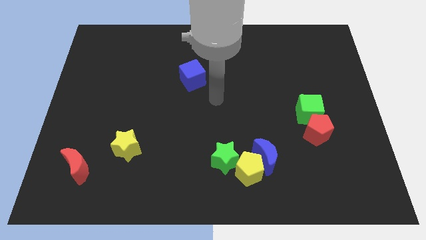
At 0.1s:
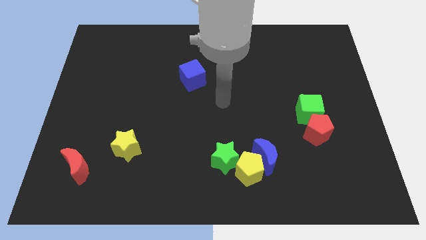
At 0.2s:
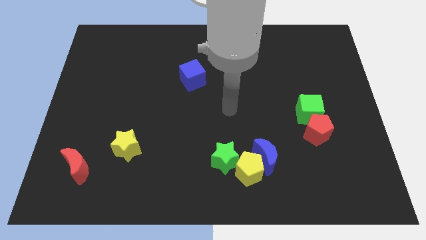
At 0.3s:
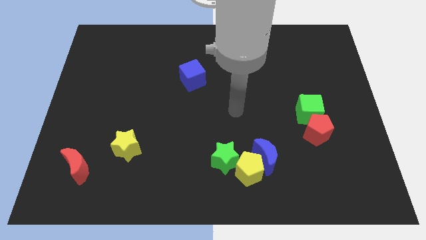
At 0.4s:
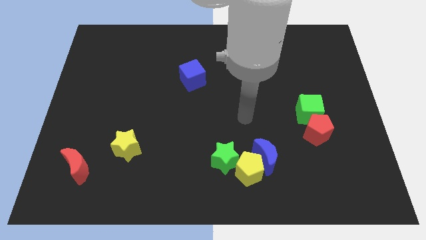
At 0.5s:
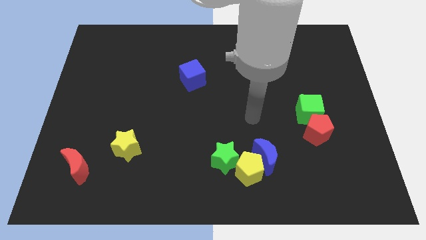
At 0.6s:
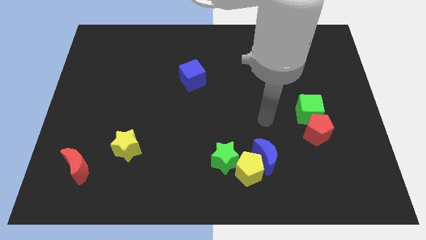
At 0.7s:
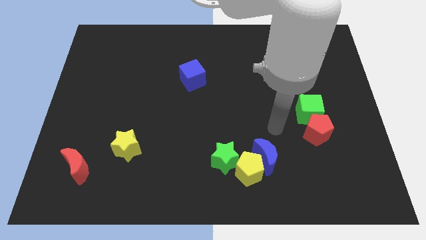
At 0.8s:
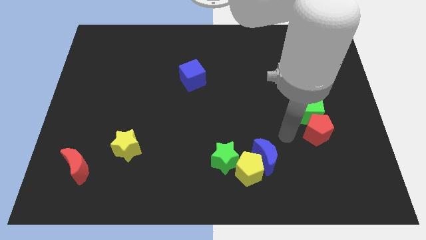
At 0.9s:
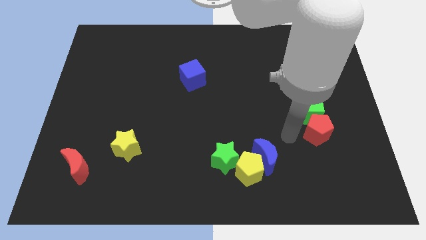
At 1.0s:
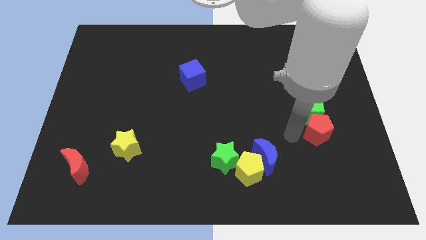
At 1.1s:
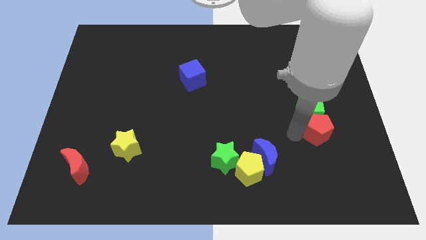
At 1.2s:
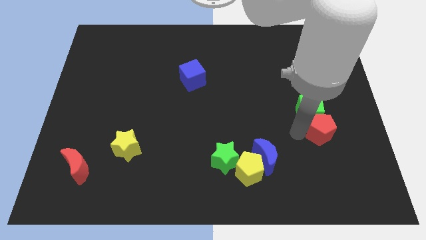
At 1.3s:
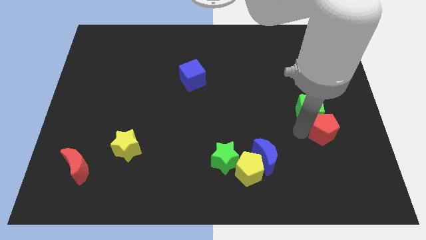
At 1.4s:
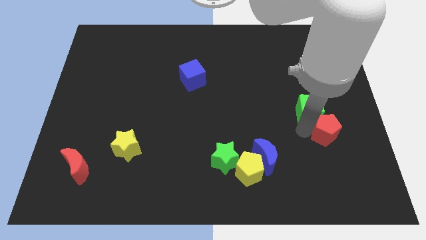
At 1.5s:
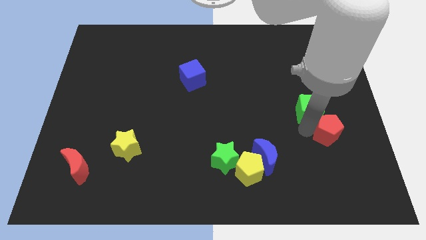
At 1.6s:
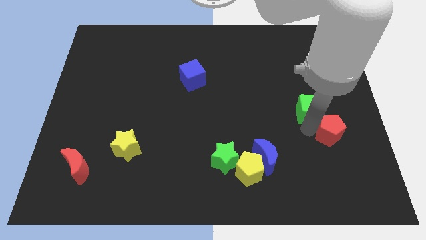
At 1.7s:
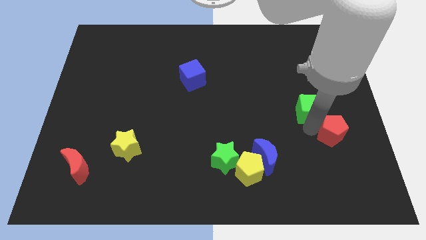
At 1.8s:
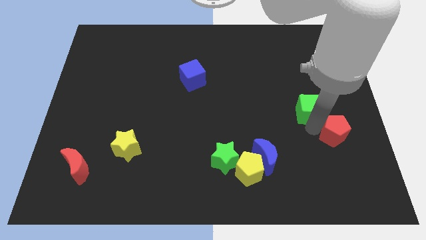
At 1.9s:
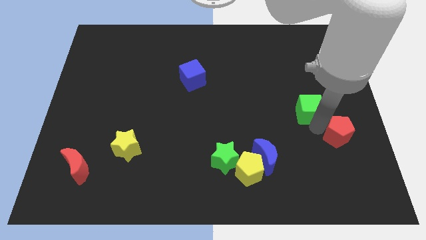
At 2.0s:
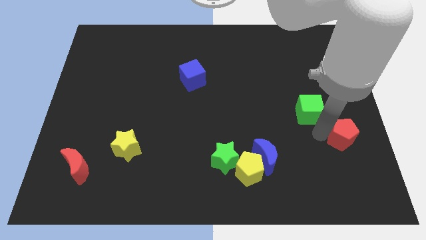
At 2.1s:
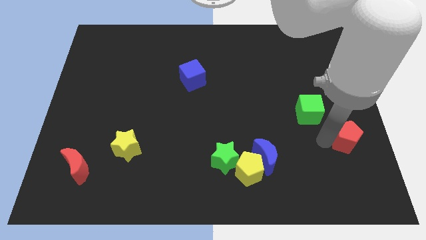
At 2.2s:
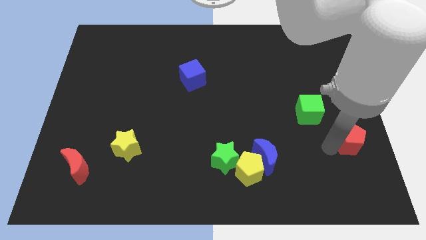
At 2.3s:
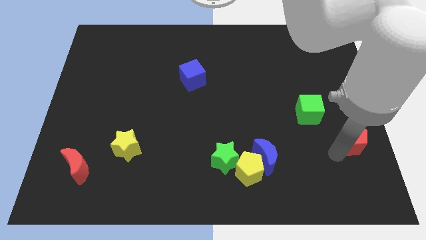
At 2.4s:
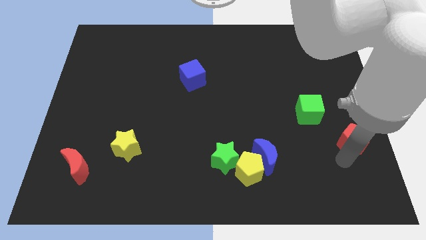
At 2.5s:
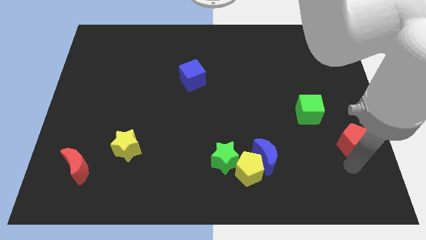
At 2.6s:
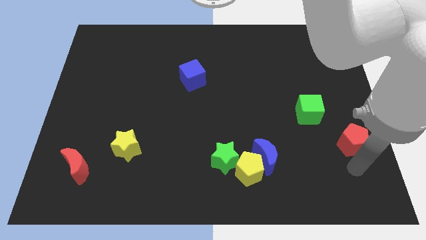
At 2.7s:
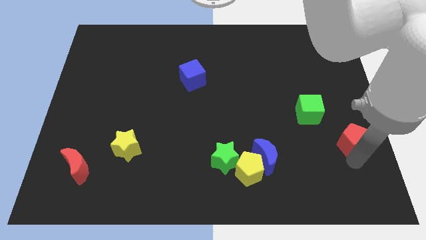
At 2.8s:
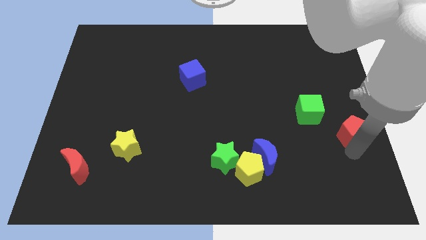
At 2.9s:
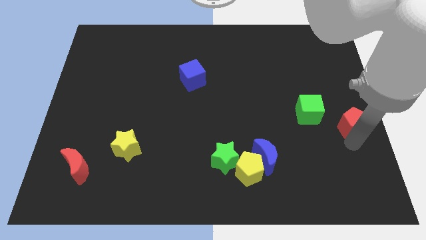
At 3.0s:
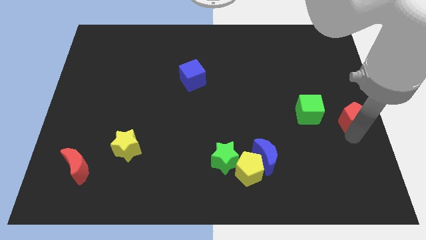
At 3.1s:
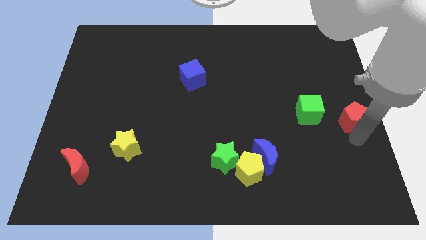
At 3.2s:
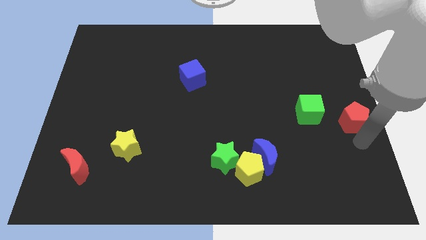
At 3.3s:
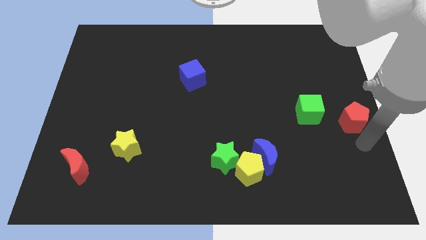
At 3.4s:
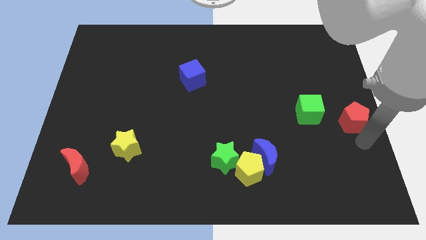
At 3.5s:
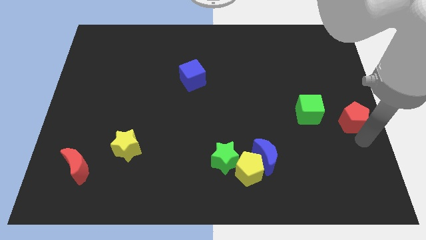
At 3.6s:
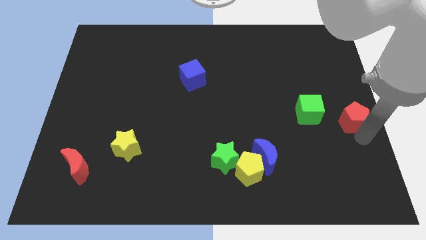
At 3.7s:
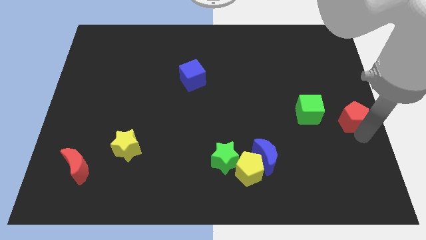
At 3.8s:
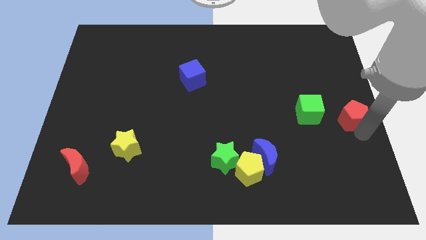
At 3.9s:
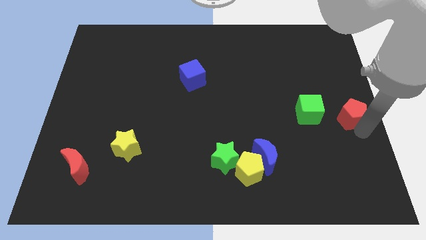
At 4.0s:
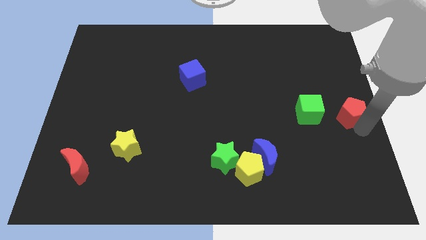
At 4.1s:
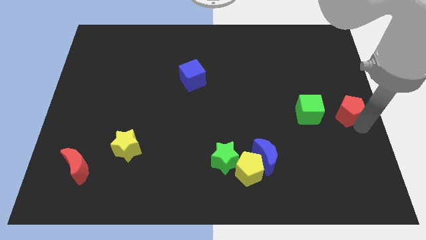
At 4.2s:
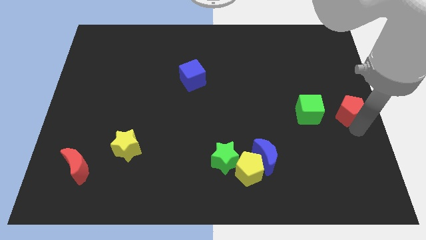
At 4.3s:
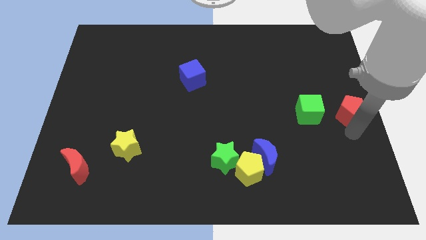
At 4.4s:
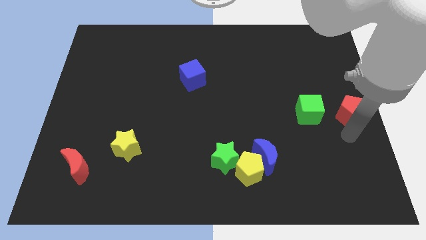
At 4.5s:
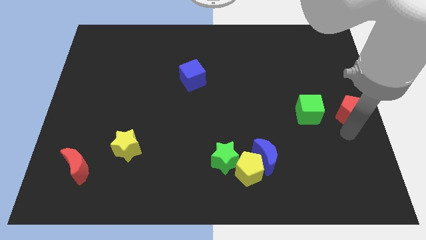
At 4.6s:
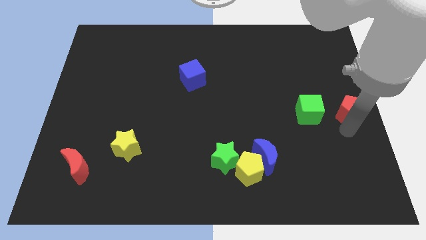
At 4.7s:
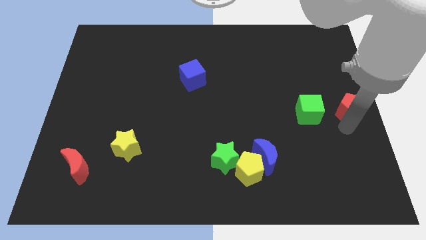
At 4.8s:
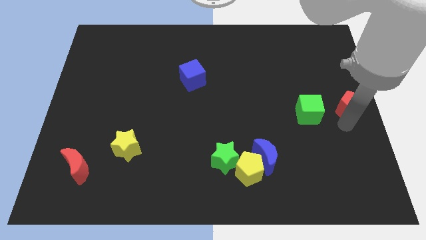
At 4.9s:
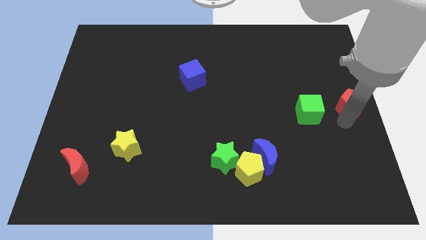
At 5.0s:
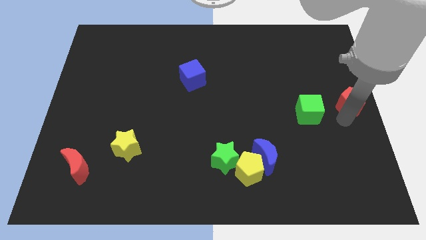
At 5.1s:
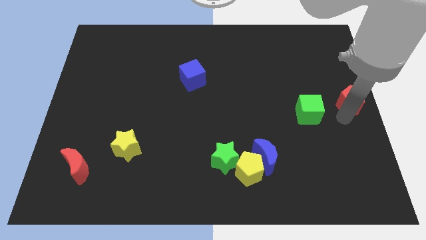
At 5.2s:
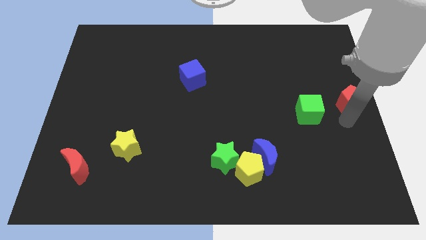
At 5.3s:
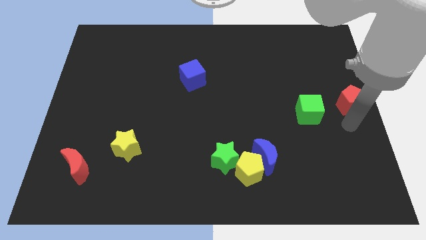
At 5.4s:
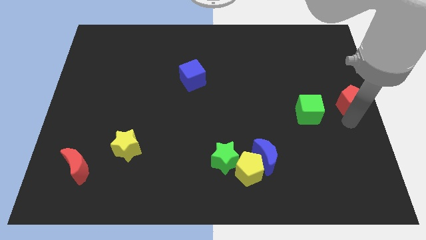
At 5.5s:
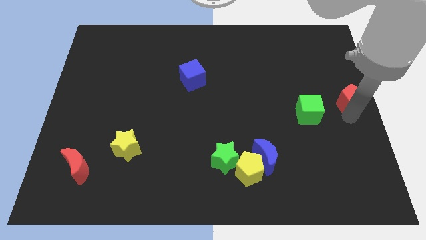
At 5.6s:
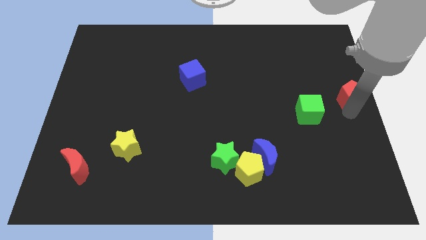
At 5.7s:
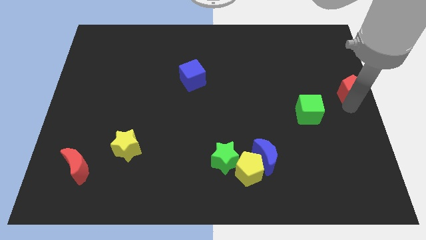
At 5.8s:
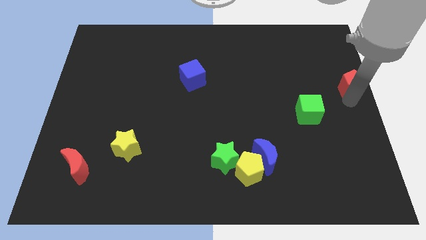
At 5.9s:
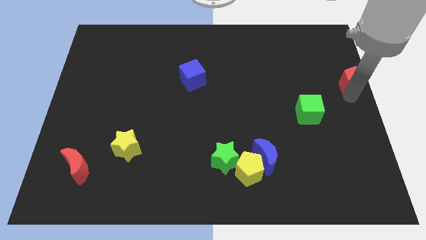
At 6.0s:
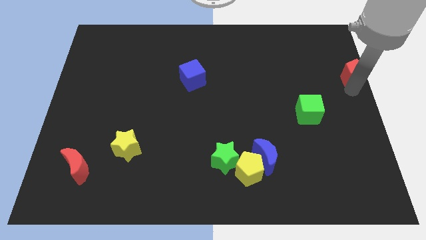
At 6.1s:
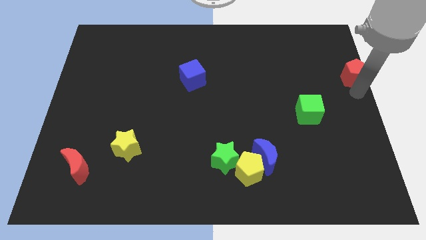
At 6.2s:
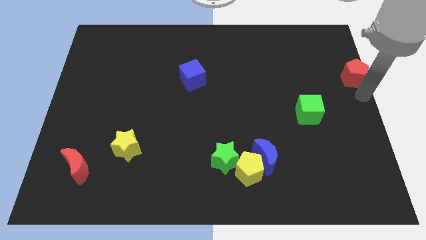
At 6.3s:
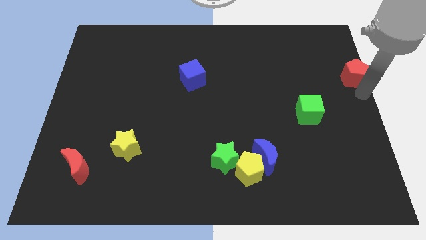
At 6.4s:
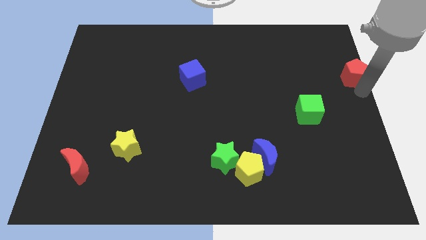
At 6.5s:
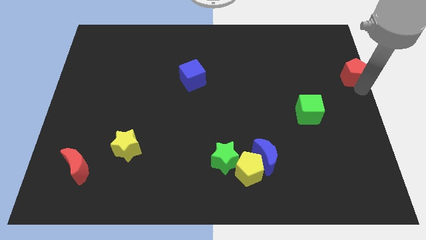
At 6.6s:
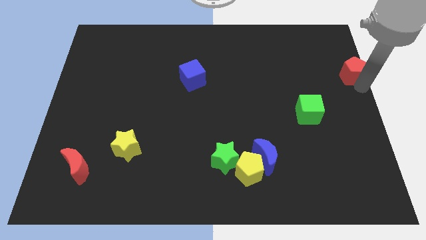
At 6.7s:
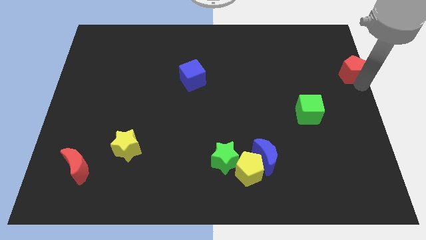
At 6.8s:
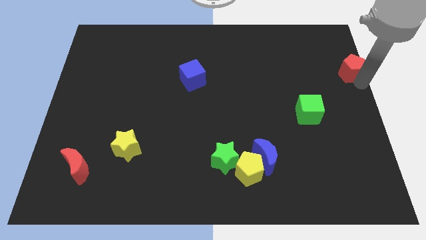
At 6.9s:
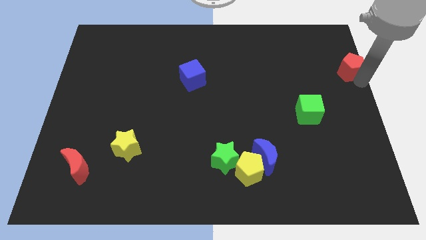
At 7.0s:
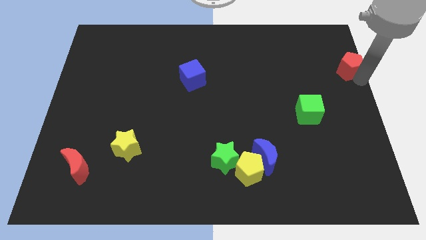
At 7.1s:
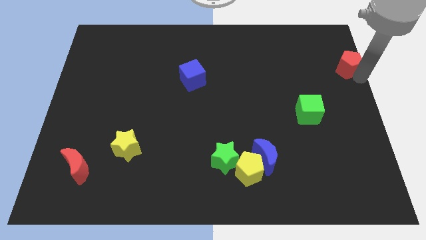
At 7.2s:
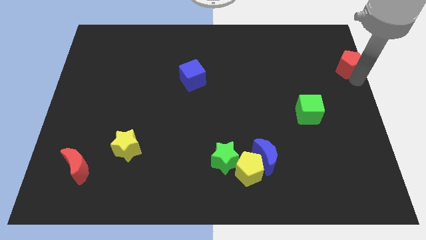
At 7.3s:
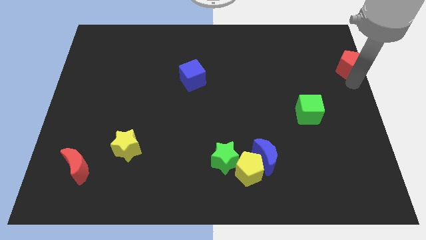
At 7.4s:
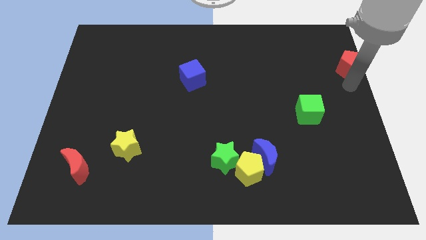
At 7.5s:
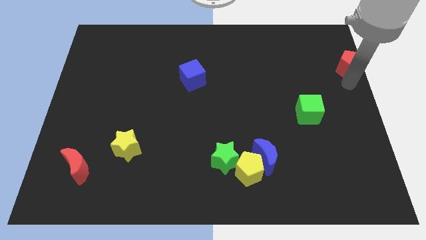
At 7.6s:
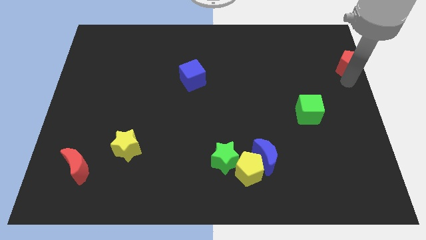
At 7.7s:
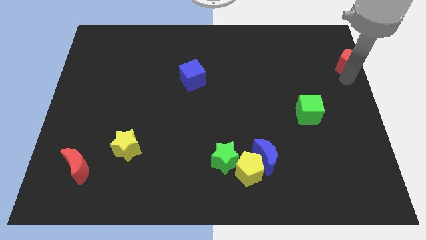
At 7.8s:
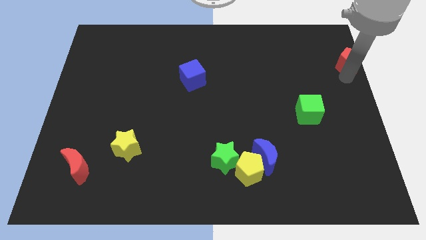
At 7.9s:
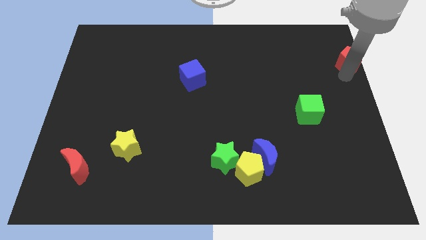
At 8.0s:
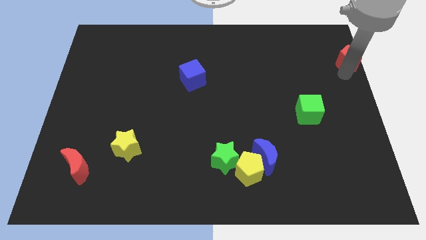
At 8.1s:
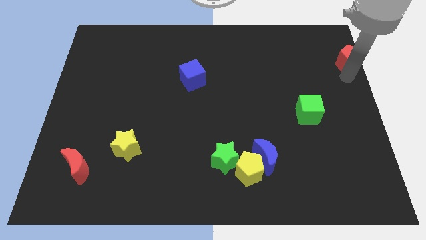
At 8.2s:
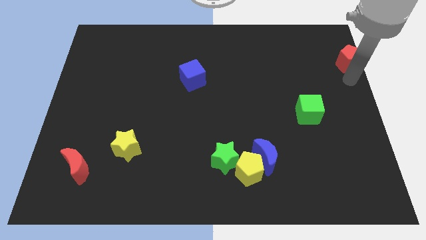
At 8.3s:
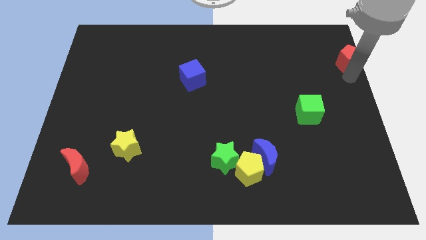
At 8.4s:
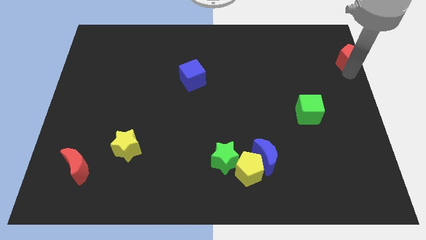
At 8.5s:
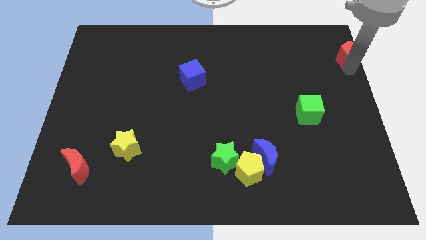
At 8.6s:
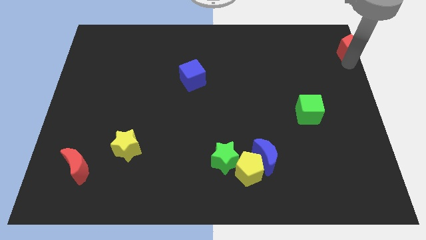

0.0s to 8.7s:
put the red pentagon to the top right
